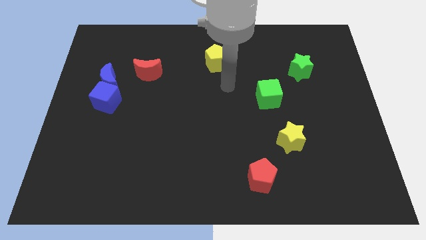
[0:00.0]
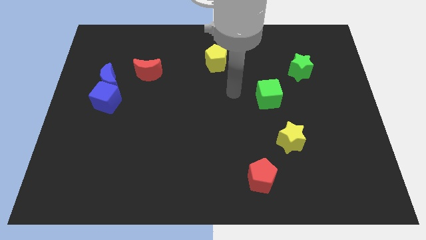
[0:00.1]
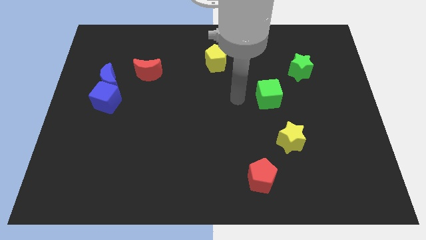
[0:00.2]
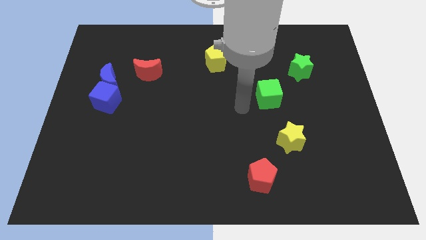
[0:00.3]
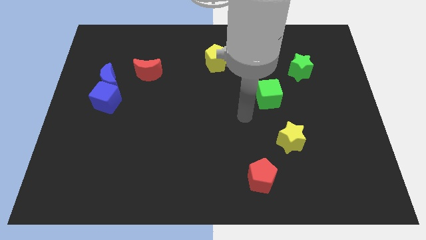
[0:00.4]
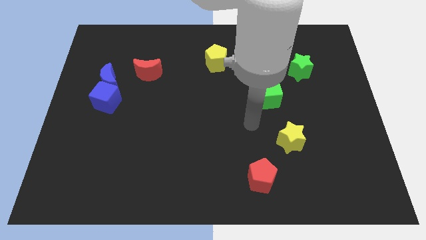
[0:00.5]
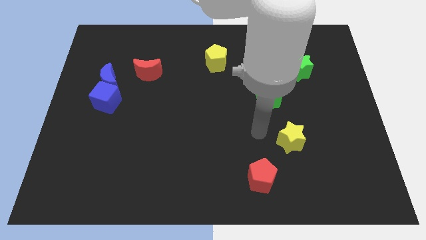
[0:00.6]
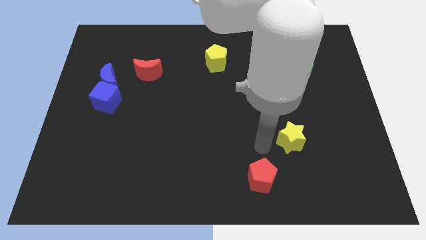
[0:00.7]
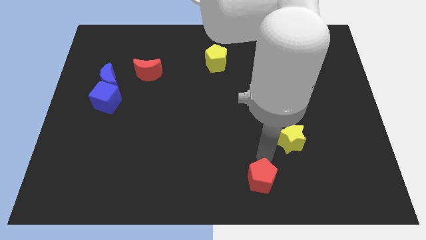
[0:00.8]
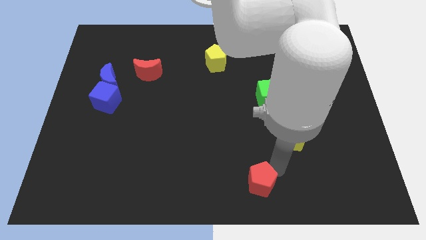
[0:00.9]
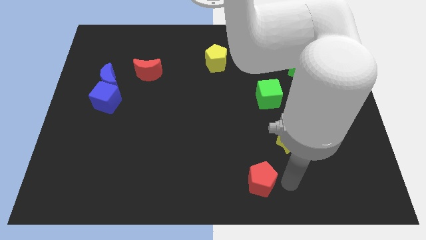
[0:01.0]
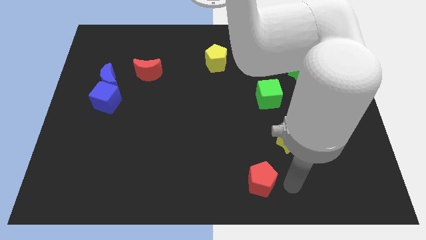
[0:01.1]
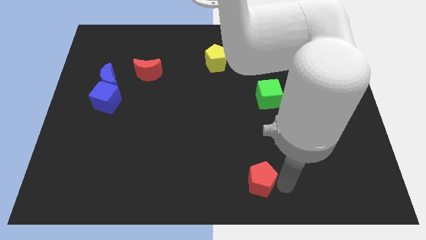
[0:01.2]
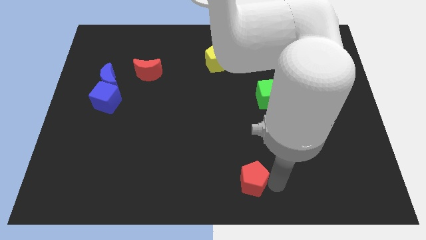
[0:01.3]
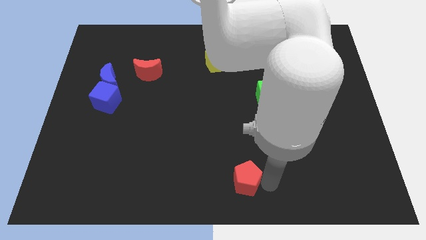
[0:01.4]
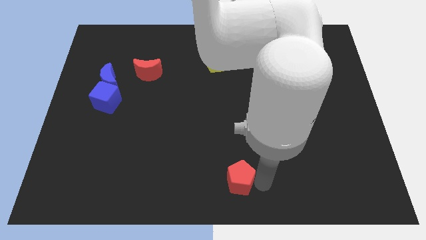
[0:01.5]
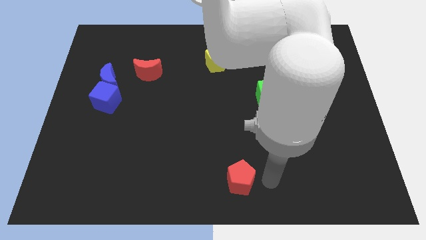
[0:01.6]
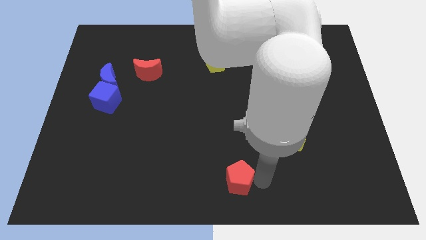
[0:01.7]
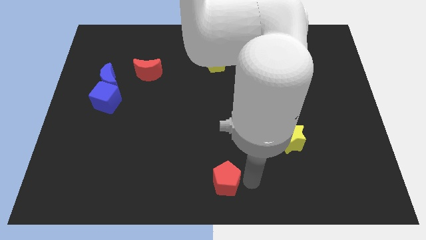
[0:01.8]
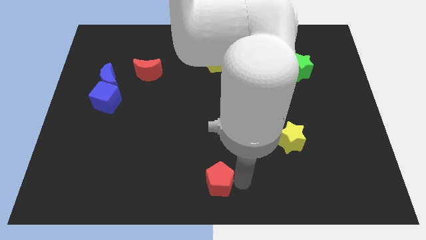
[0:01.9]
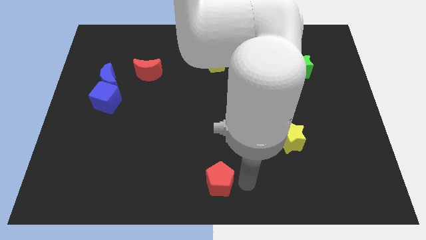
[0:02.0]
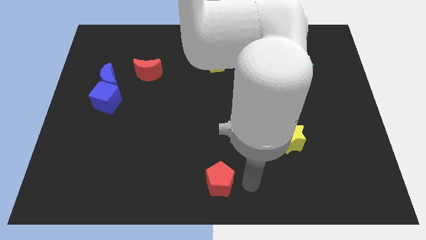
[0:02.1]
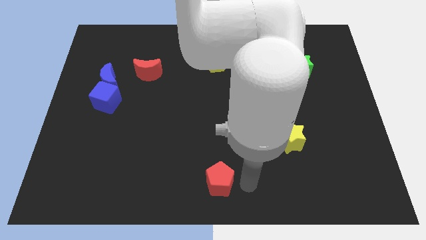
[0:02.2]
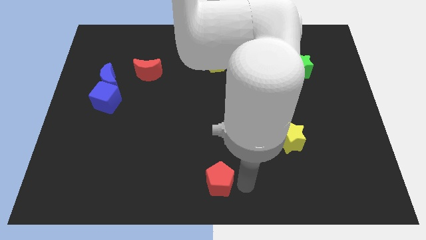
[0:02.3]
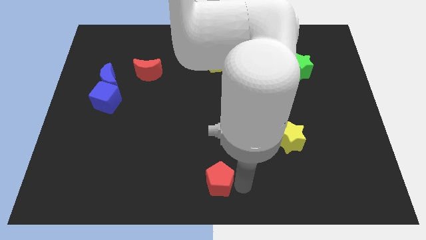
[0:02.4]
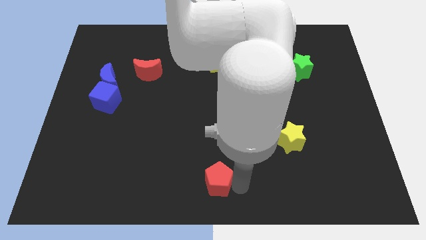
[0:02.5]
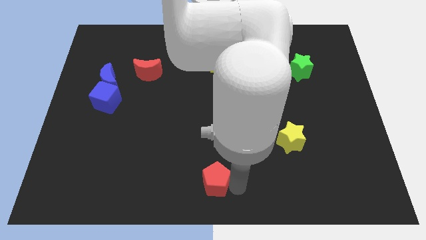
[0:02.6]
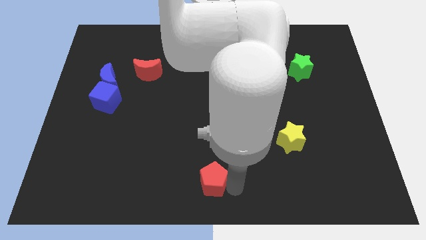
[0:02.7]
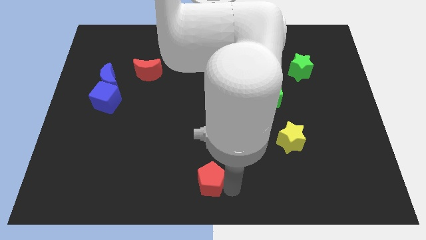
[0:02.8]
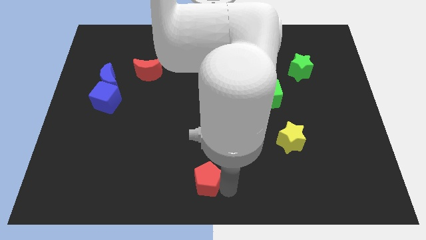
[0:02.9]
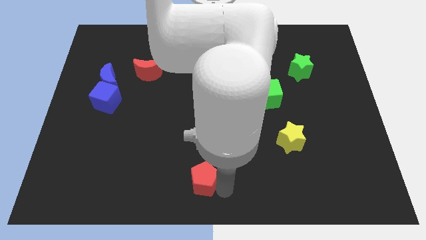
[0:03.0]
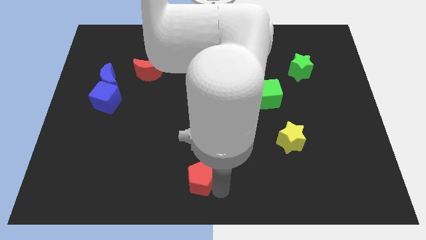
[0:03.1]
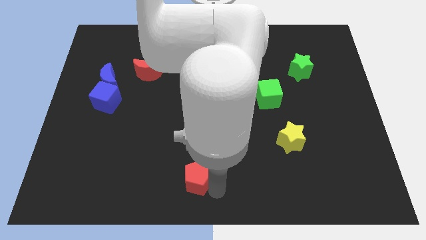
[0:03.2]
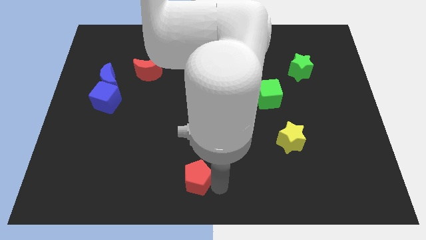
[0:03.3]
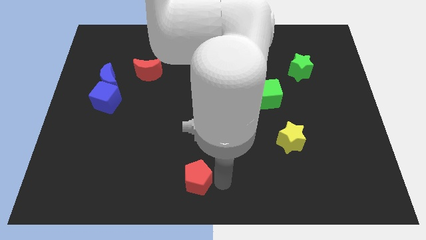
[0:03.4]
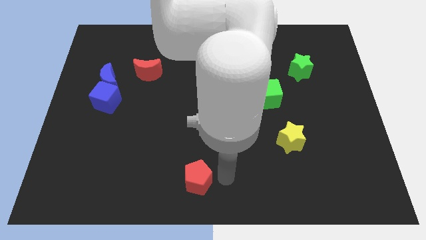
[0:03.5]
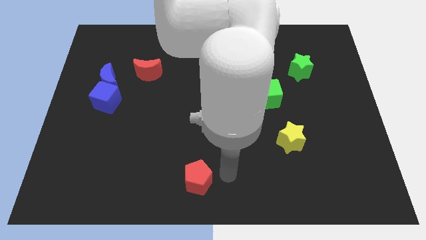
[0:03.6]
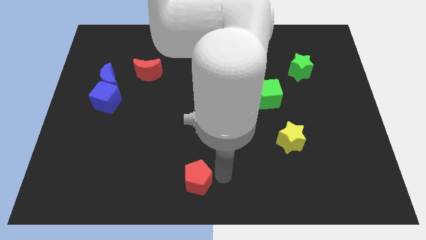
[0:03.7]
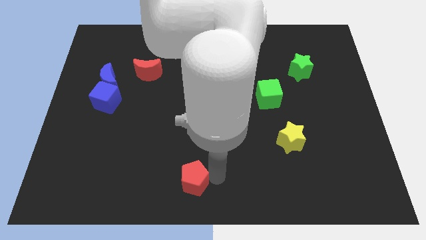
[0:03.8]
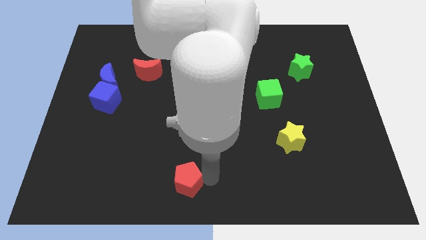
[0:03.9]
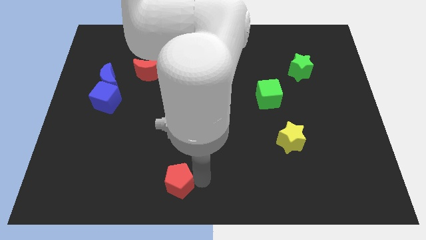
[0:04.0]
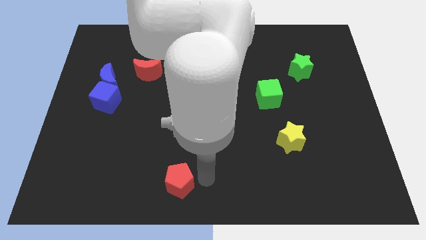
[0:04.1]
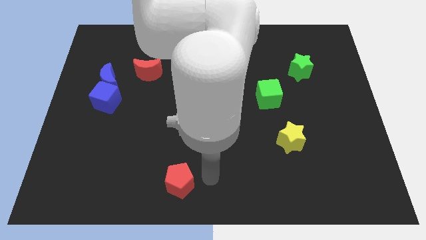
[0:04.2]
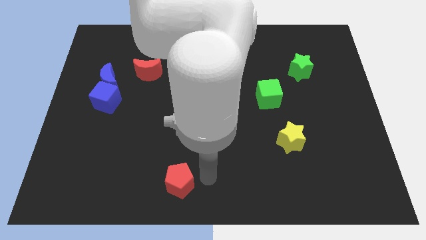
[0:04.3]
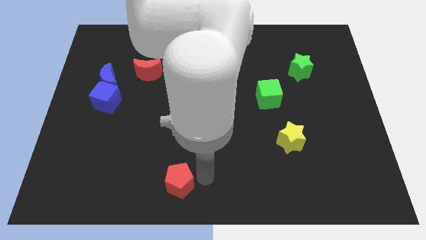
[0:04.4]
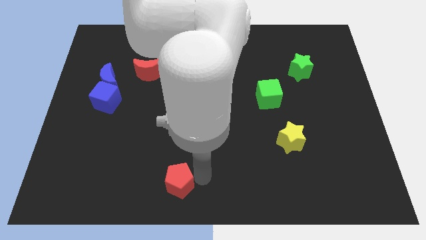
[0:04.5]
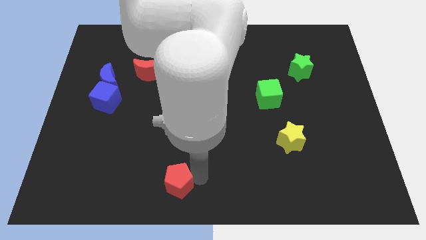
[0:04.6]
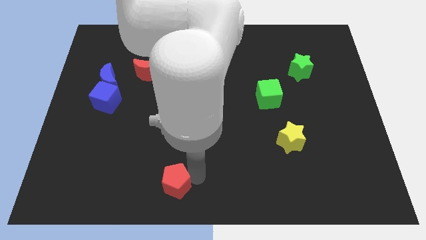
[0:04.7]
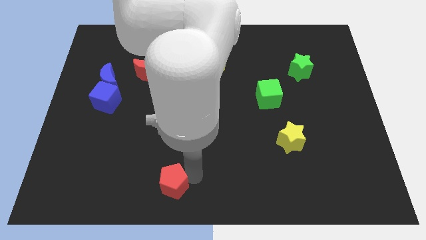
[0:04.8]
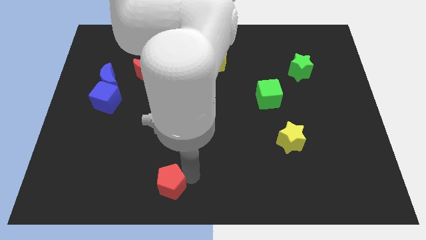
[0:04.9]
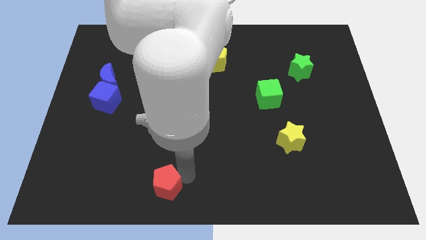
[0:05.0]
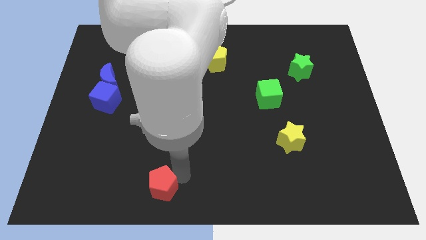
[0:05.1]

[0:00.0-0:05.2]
push the red pentagon to the left

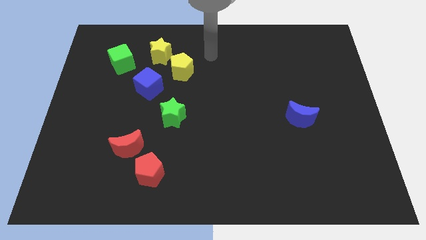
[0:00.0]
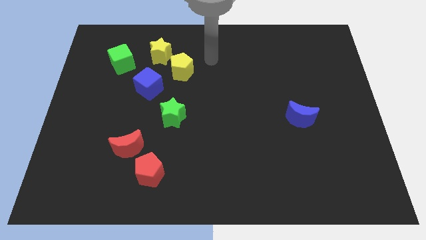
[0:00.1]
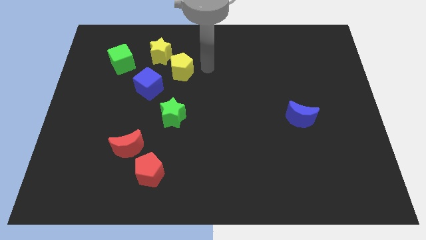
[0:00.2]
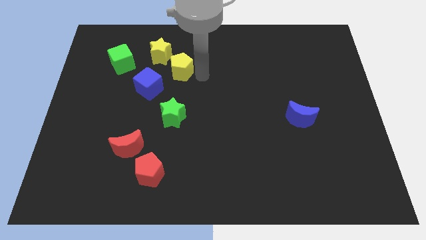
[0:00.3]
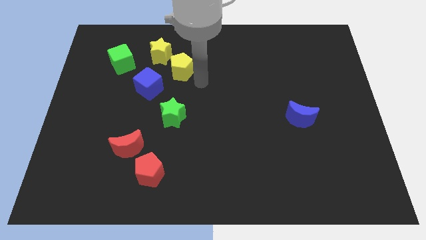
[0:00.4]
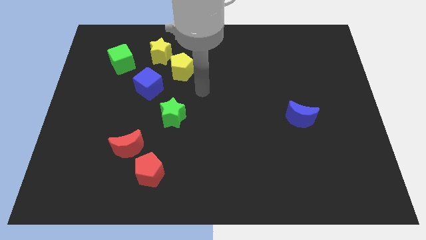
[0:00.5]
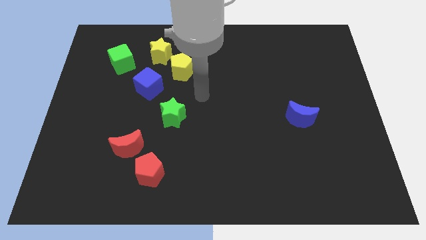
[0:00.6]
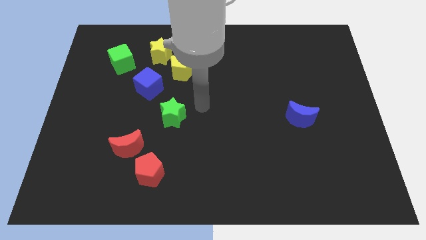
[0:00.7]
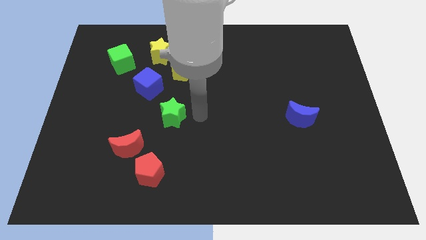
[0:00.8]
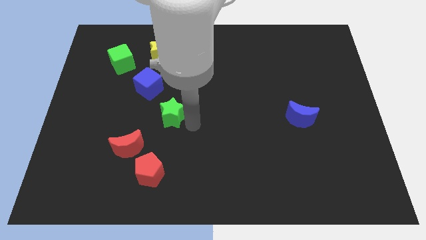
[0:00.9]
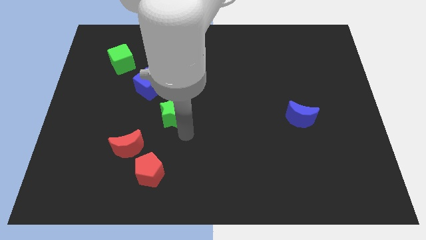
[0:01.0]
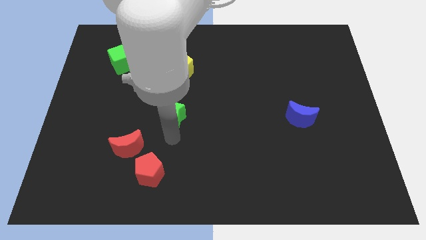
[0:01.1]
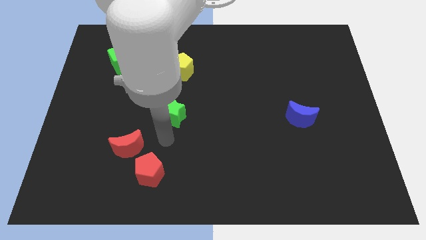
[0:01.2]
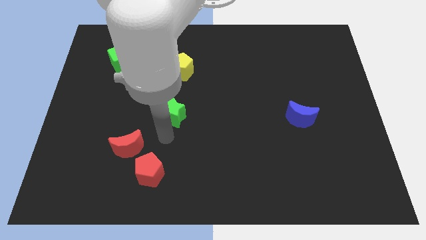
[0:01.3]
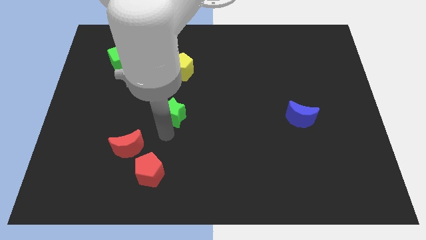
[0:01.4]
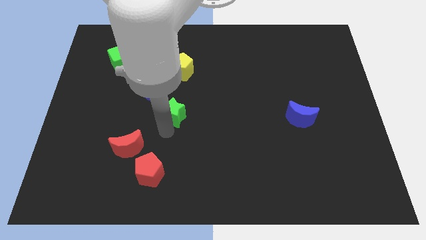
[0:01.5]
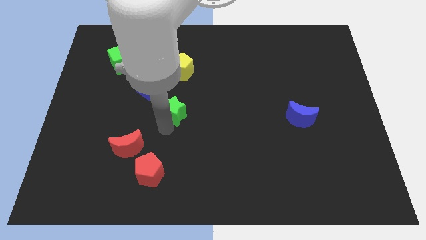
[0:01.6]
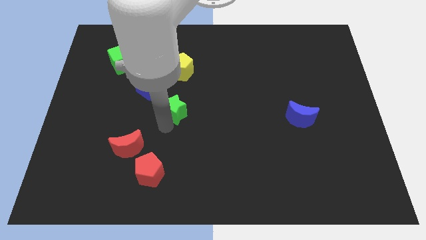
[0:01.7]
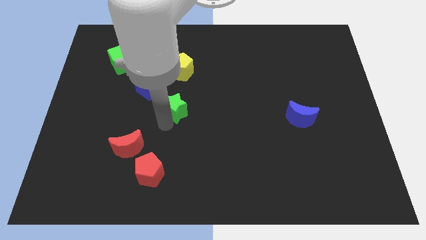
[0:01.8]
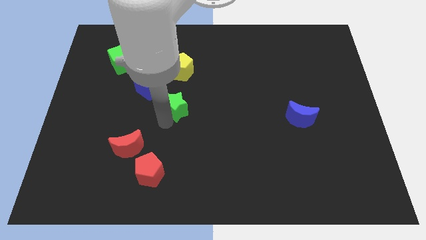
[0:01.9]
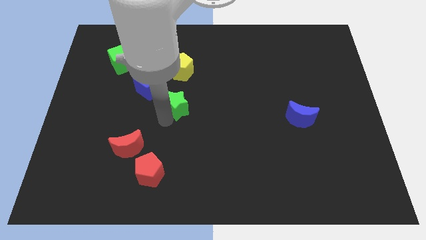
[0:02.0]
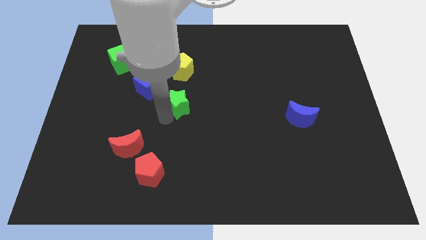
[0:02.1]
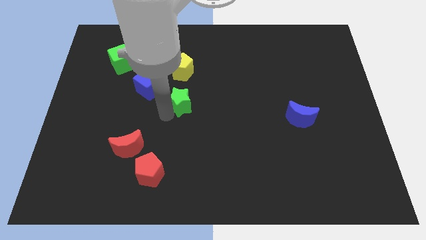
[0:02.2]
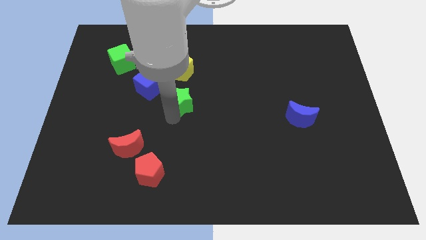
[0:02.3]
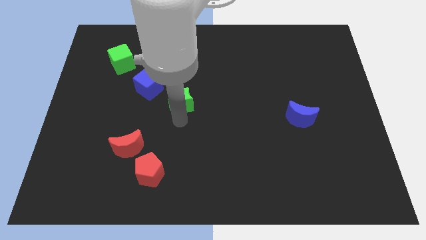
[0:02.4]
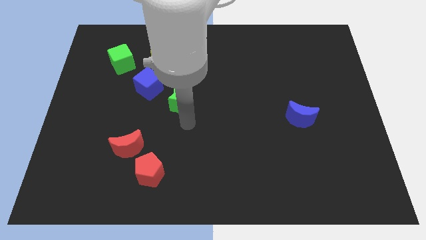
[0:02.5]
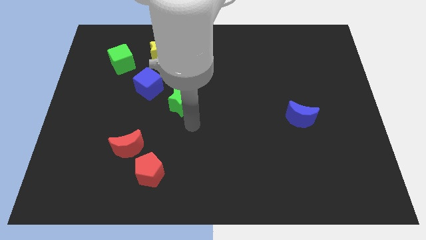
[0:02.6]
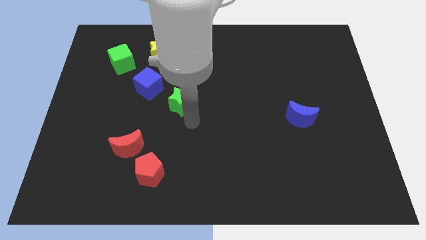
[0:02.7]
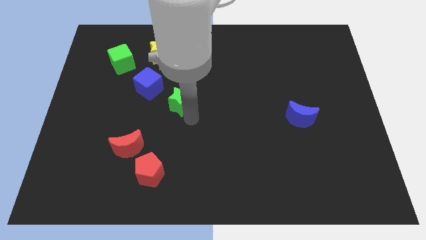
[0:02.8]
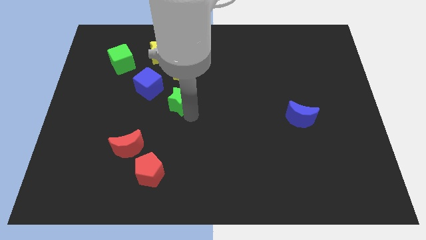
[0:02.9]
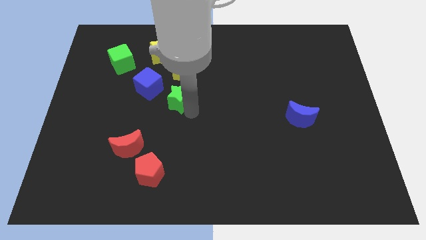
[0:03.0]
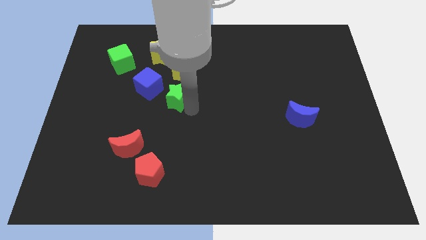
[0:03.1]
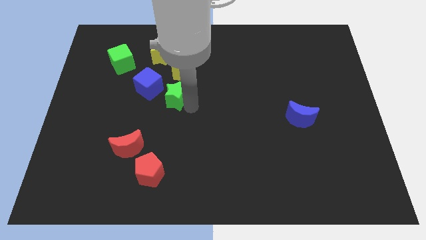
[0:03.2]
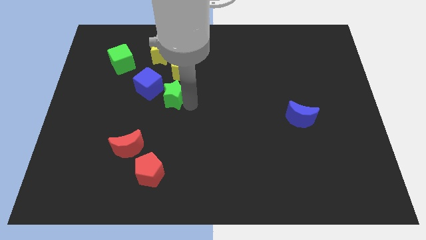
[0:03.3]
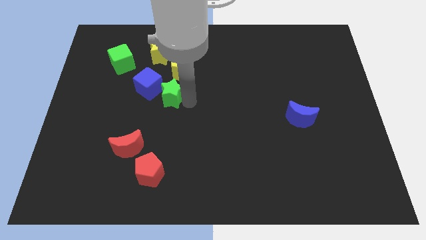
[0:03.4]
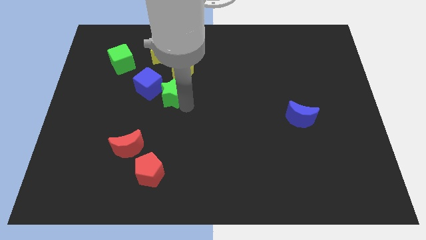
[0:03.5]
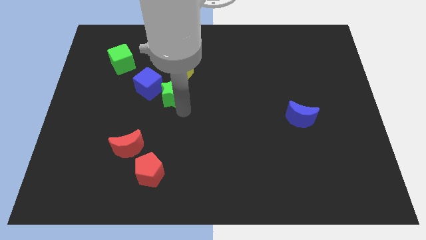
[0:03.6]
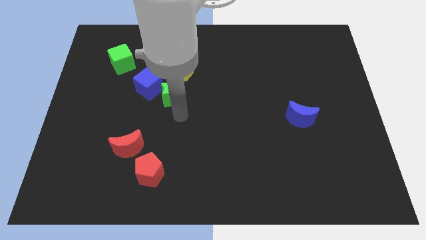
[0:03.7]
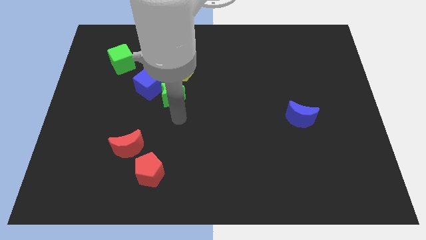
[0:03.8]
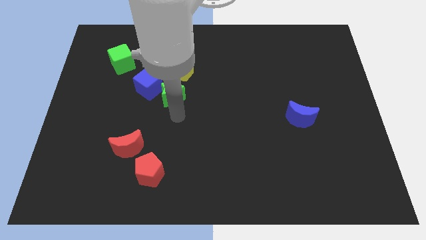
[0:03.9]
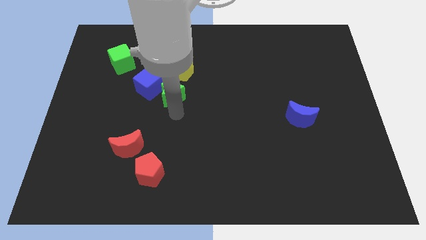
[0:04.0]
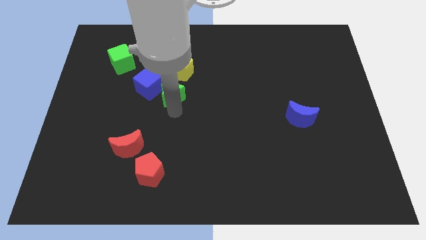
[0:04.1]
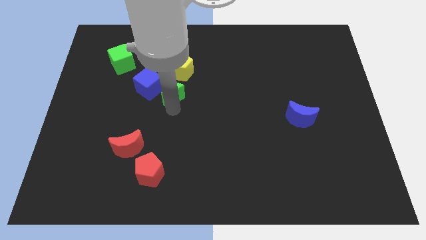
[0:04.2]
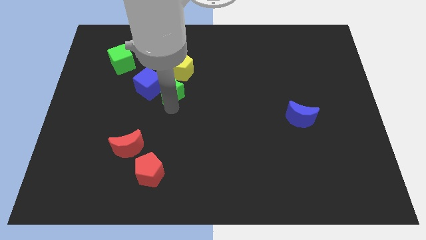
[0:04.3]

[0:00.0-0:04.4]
push the green star up a little
